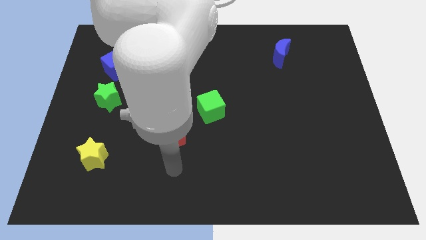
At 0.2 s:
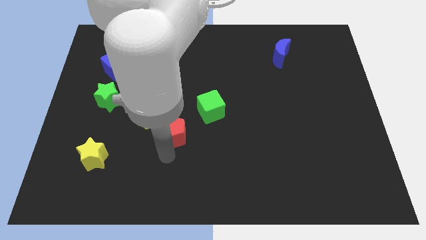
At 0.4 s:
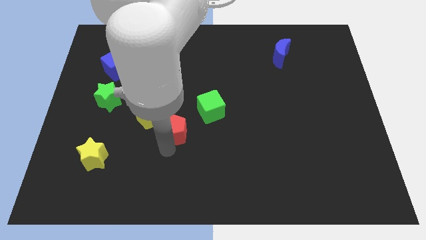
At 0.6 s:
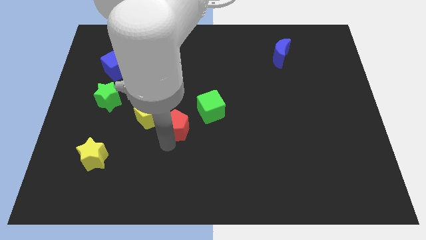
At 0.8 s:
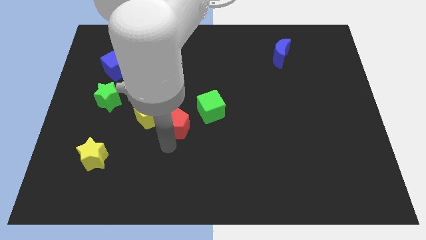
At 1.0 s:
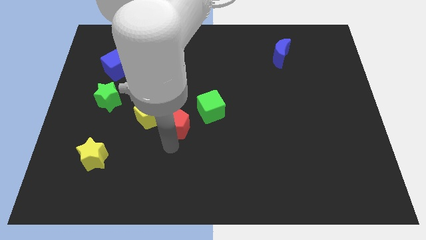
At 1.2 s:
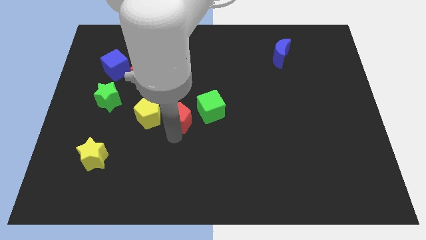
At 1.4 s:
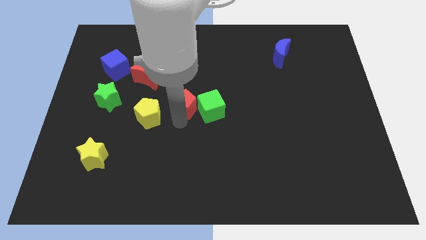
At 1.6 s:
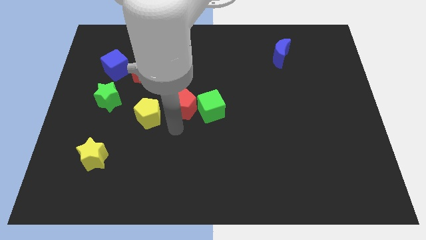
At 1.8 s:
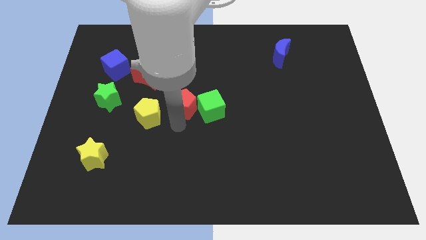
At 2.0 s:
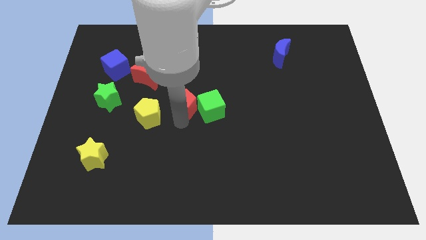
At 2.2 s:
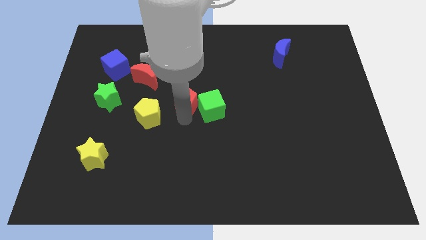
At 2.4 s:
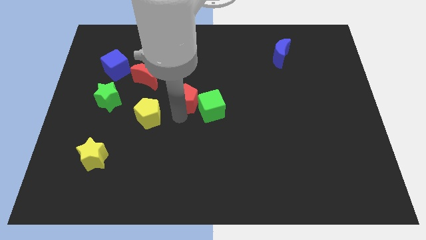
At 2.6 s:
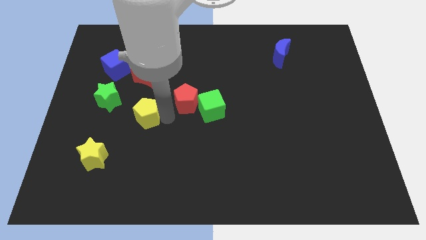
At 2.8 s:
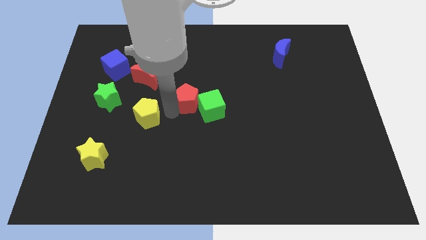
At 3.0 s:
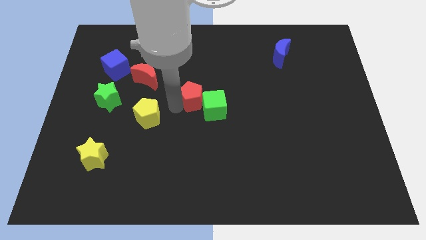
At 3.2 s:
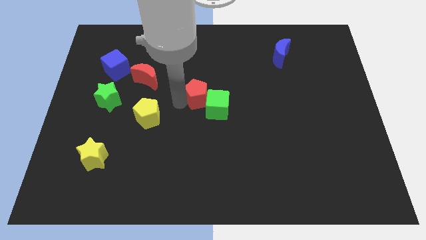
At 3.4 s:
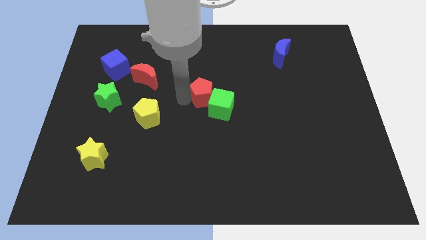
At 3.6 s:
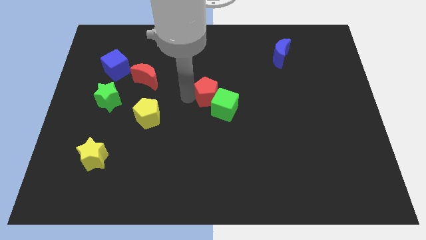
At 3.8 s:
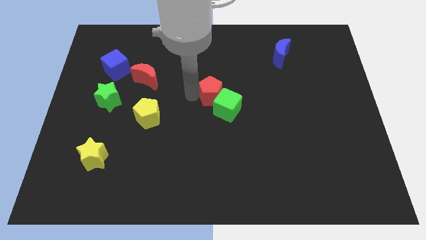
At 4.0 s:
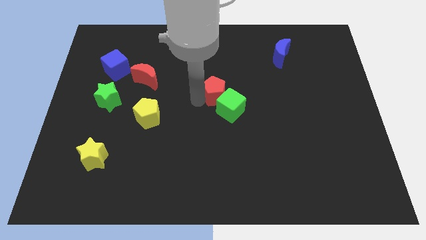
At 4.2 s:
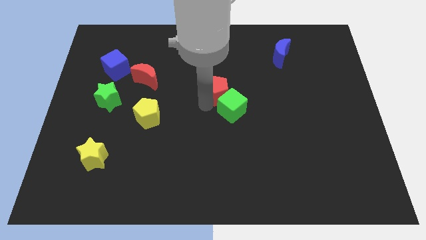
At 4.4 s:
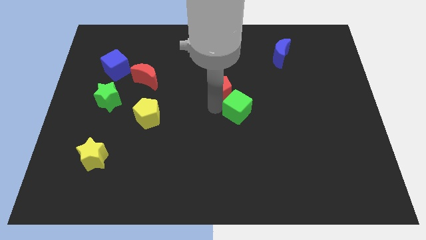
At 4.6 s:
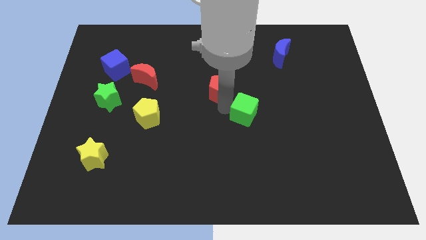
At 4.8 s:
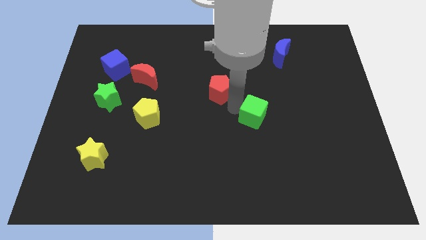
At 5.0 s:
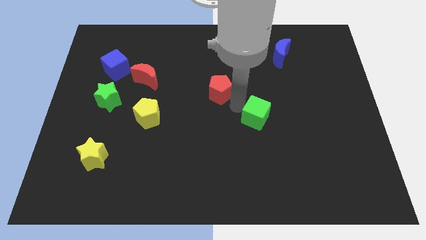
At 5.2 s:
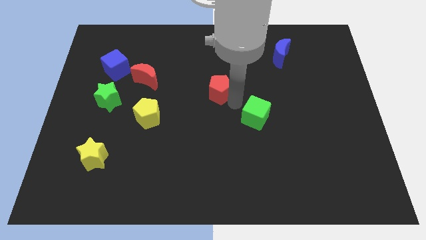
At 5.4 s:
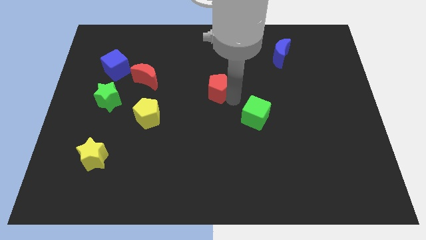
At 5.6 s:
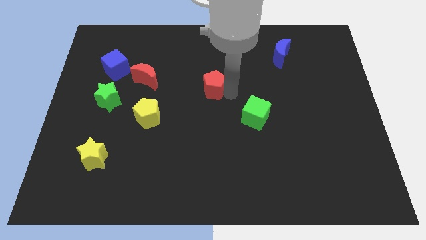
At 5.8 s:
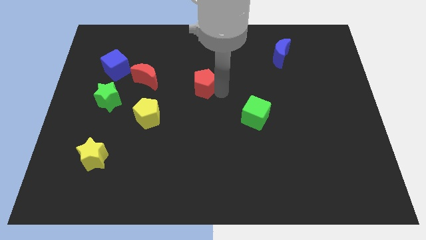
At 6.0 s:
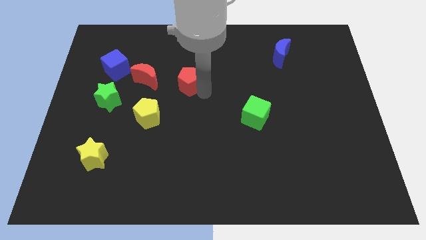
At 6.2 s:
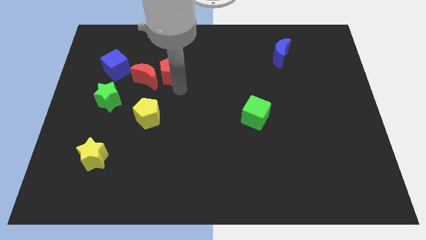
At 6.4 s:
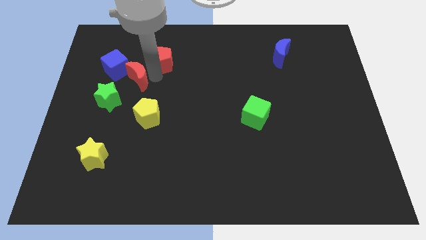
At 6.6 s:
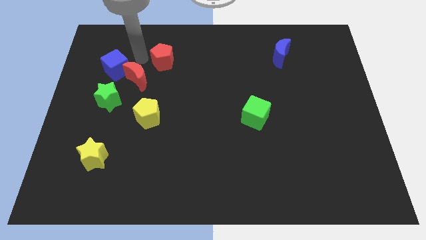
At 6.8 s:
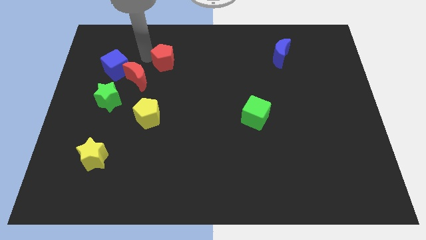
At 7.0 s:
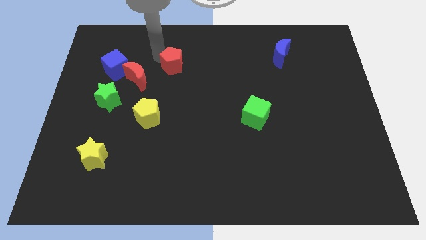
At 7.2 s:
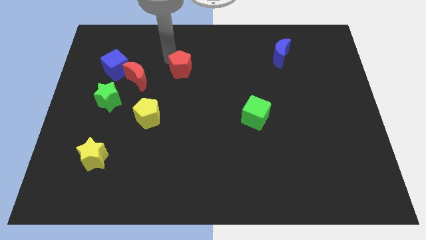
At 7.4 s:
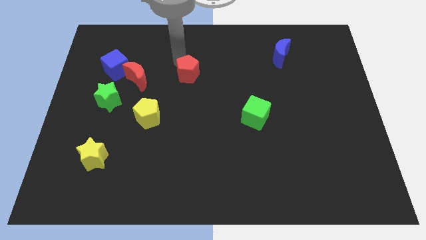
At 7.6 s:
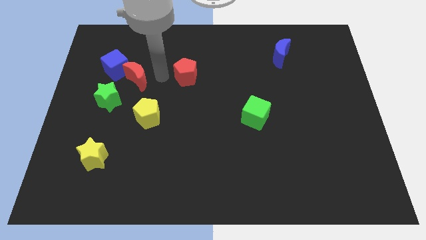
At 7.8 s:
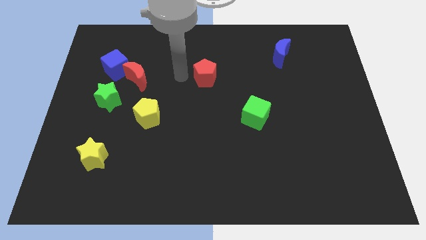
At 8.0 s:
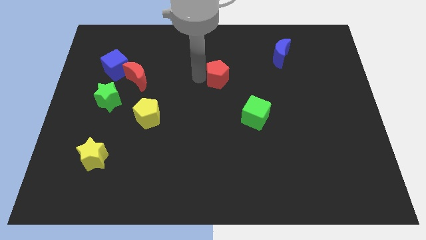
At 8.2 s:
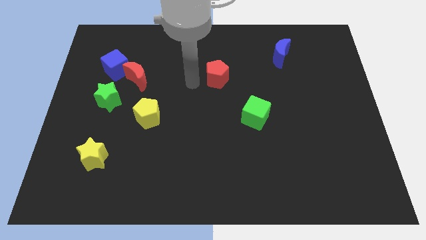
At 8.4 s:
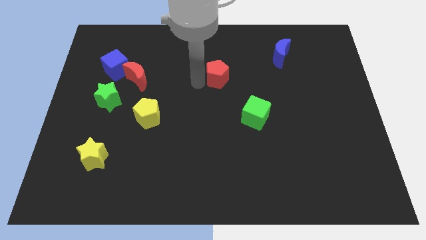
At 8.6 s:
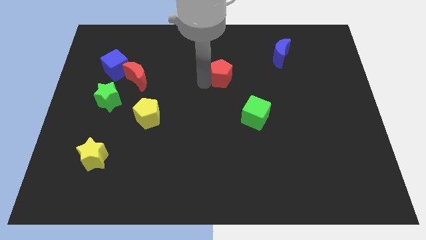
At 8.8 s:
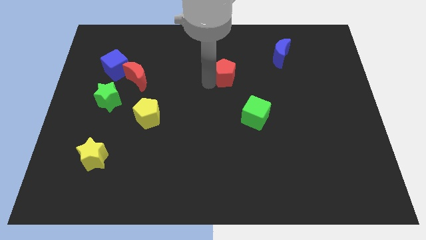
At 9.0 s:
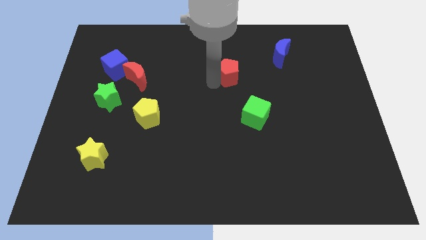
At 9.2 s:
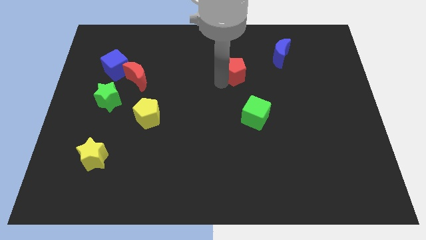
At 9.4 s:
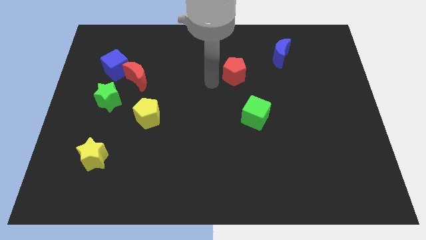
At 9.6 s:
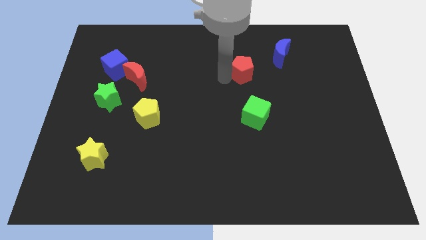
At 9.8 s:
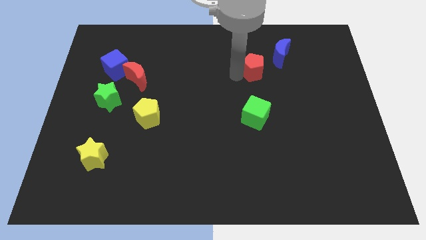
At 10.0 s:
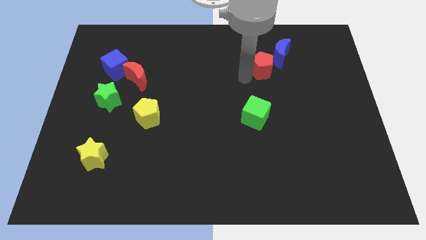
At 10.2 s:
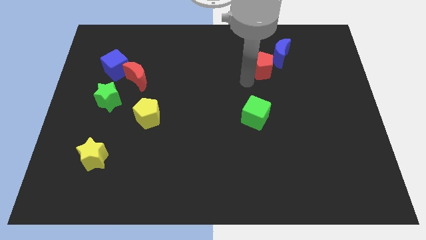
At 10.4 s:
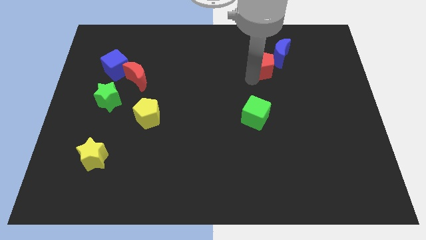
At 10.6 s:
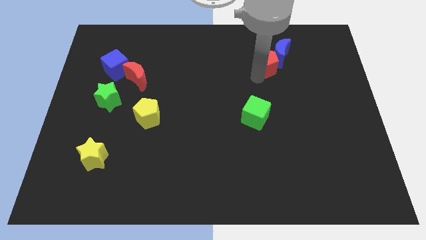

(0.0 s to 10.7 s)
slide the red pentagon towards the blue moon
